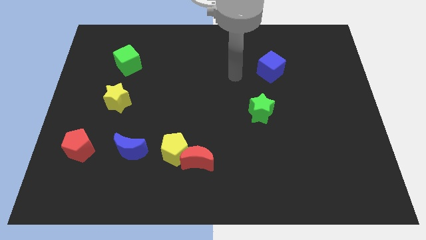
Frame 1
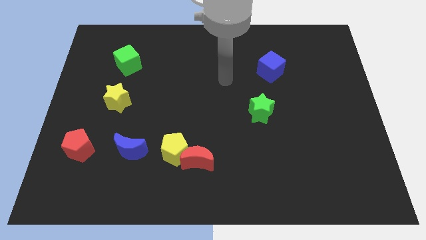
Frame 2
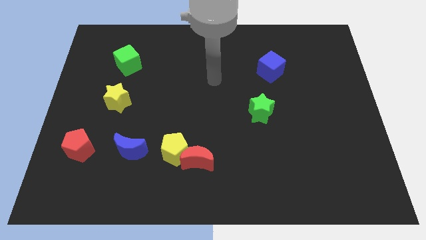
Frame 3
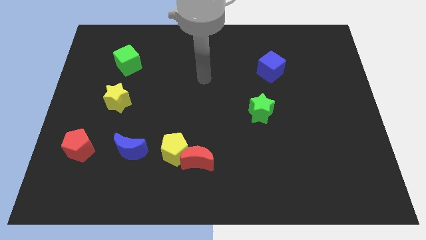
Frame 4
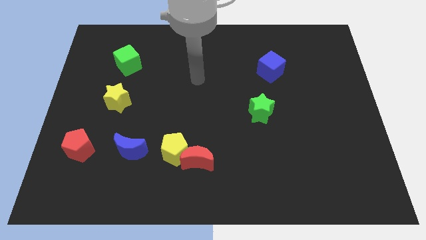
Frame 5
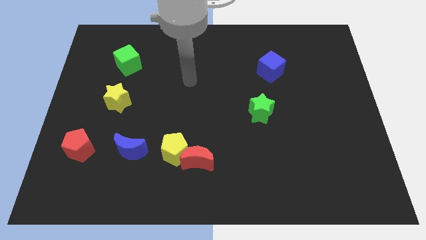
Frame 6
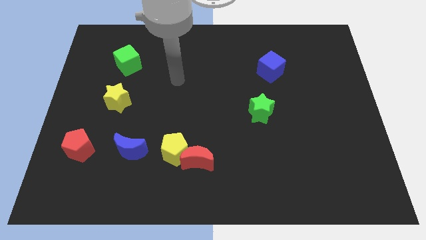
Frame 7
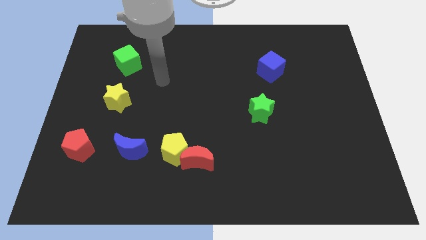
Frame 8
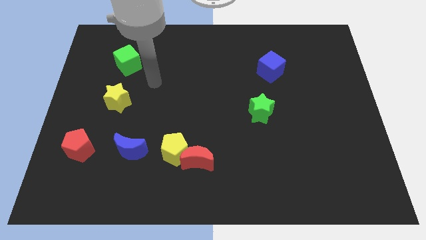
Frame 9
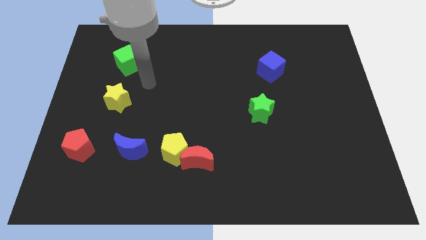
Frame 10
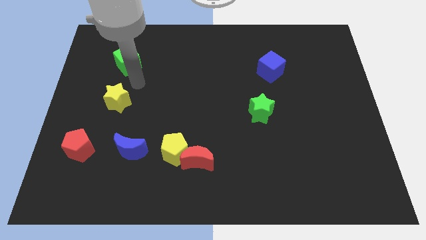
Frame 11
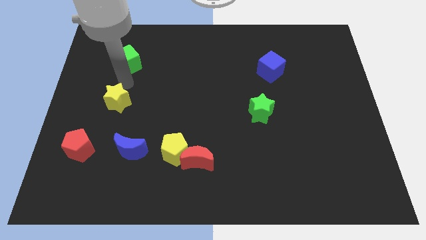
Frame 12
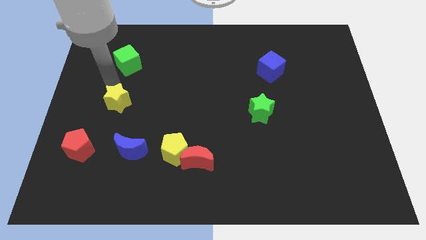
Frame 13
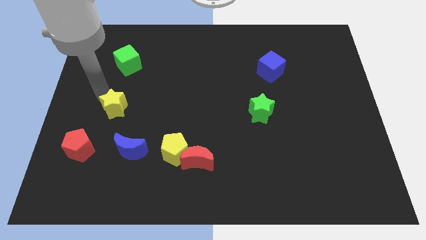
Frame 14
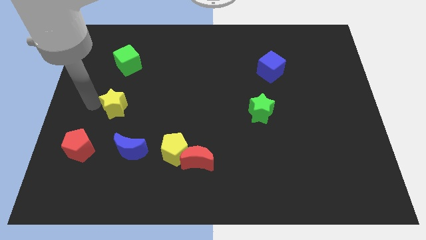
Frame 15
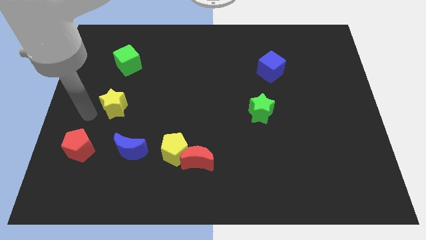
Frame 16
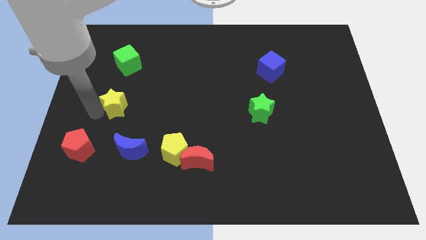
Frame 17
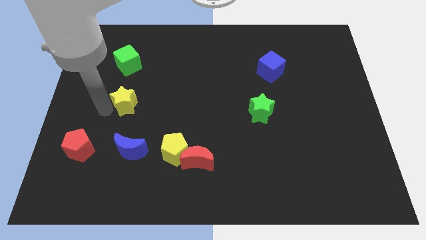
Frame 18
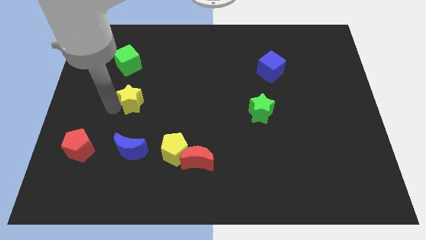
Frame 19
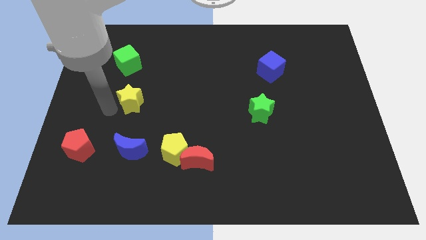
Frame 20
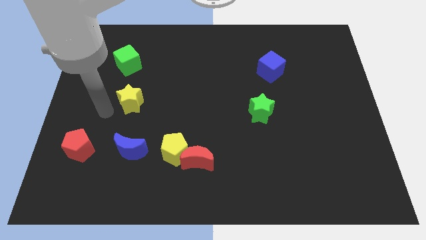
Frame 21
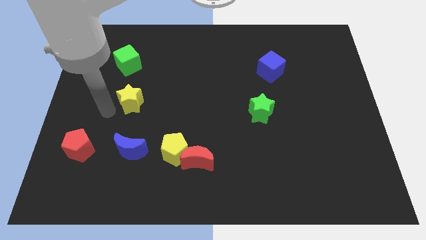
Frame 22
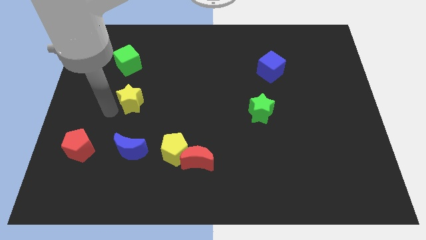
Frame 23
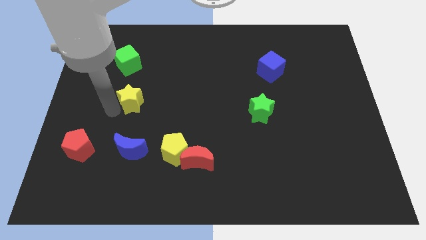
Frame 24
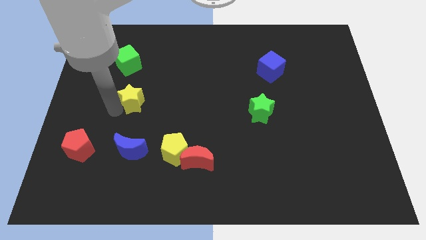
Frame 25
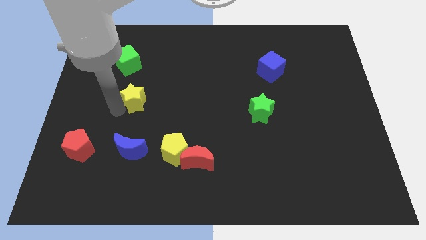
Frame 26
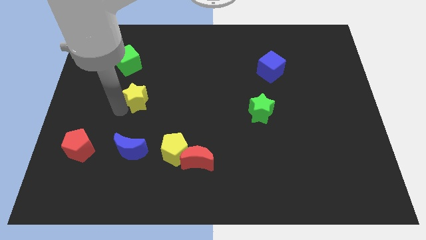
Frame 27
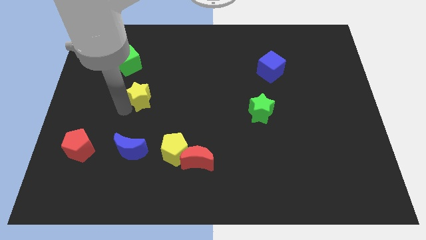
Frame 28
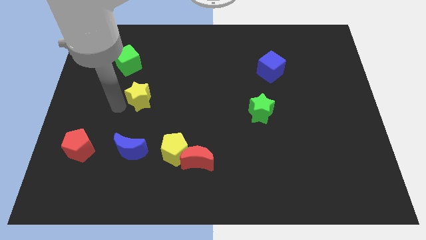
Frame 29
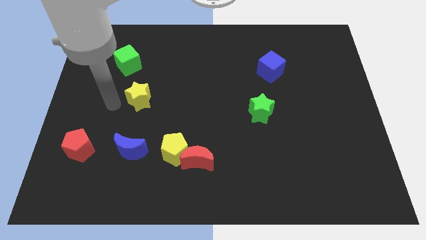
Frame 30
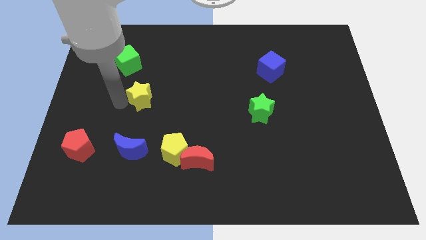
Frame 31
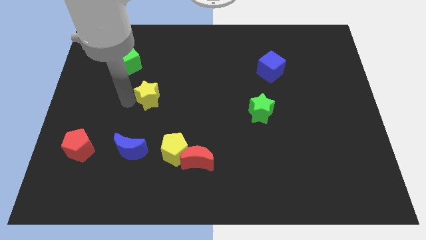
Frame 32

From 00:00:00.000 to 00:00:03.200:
slightly push the yellow star to the right

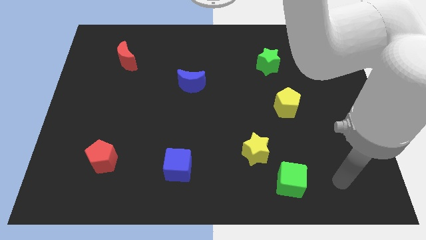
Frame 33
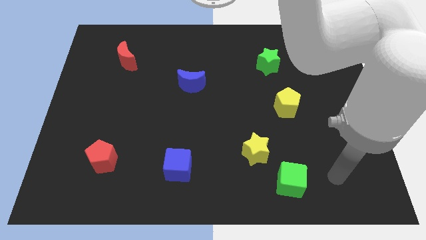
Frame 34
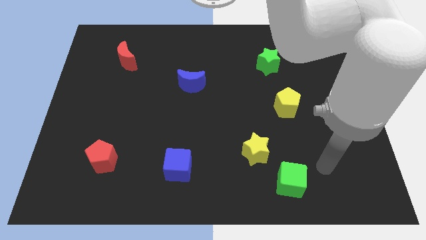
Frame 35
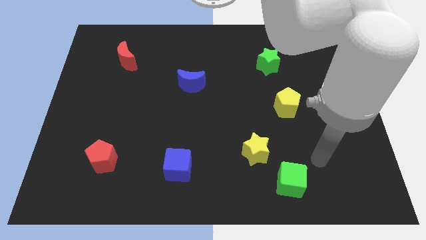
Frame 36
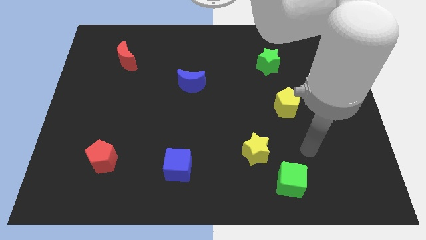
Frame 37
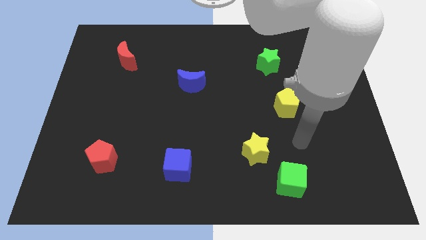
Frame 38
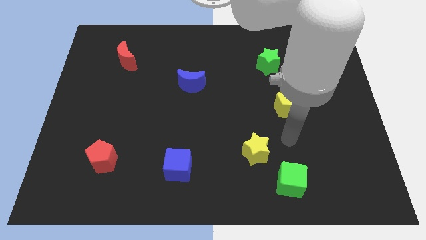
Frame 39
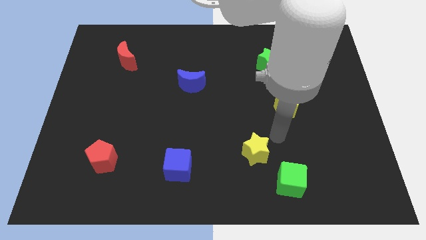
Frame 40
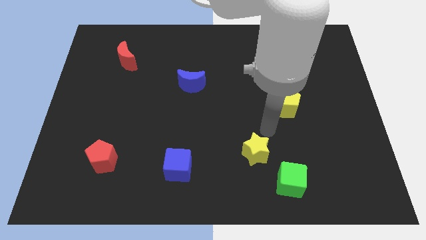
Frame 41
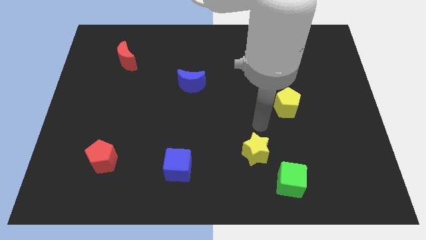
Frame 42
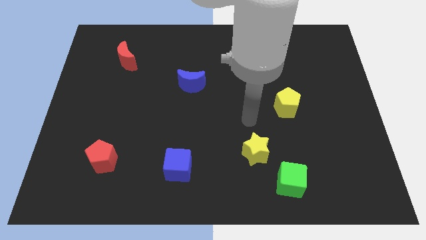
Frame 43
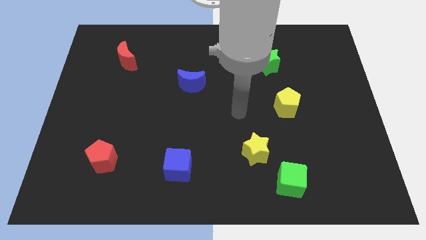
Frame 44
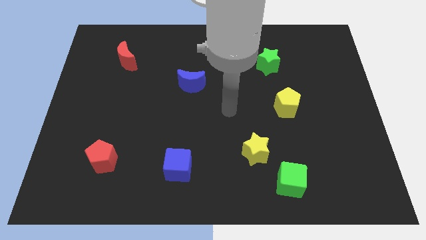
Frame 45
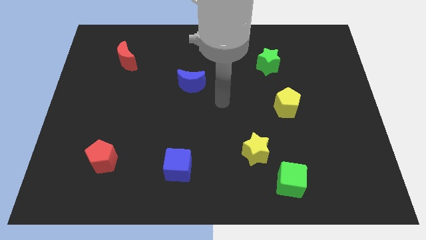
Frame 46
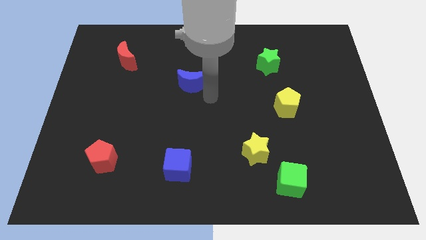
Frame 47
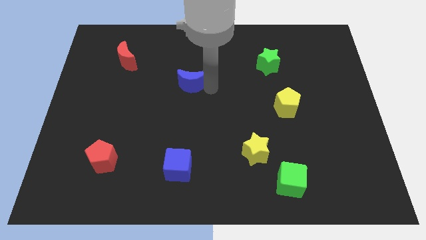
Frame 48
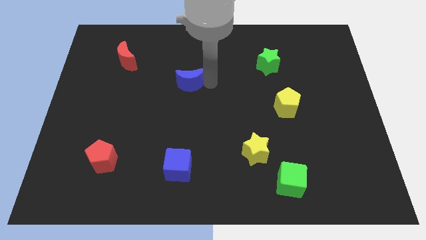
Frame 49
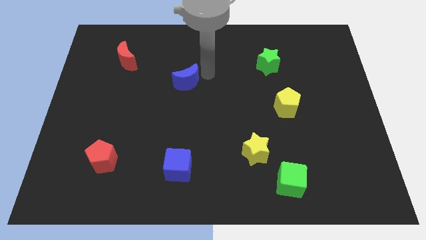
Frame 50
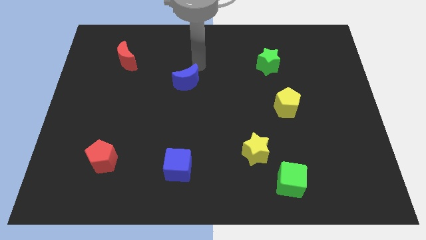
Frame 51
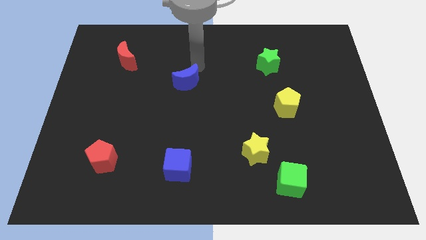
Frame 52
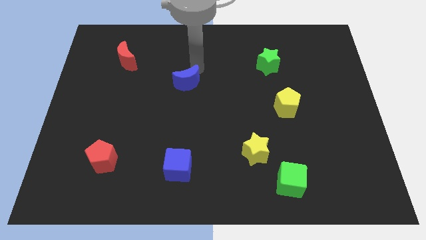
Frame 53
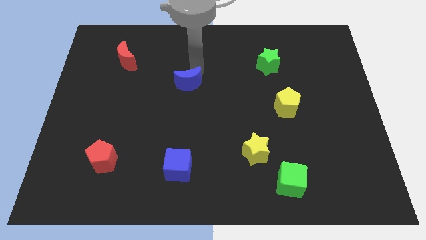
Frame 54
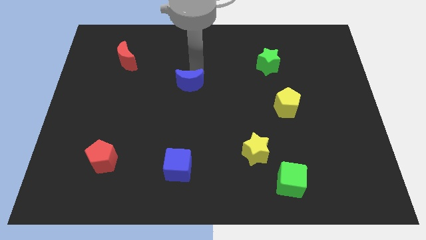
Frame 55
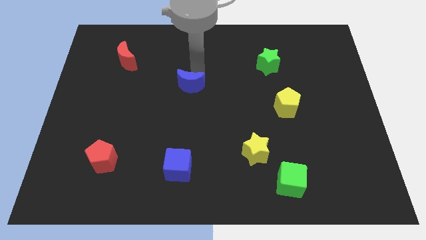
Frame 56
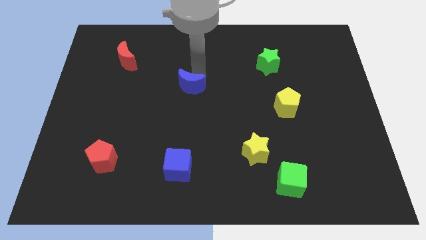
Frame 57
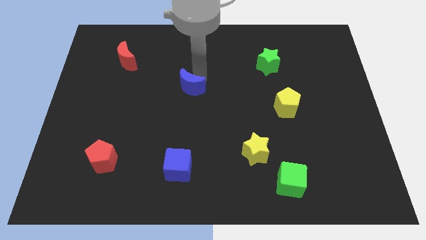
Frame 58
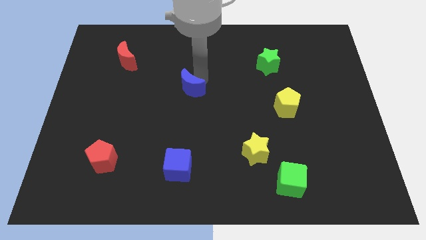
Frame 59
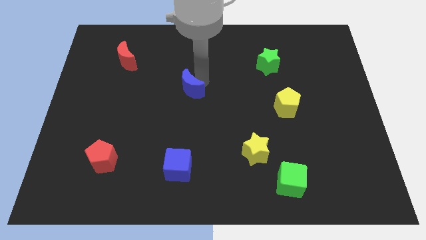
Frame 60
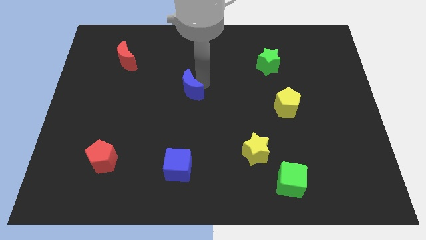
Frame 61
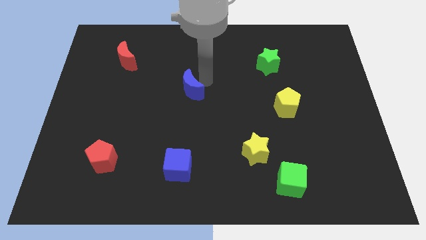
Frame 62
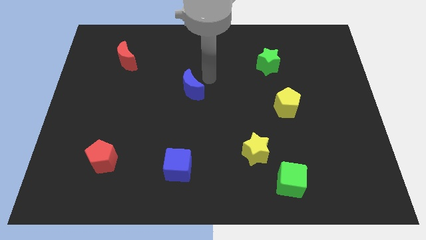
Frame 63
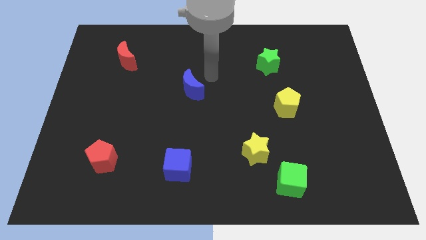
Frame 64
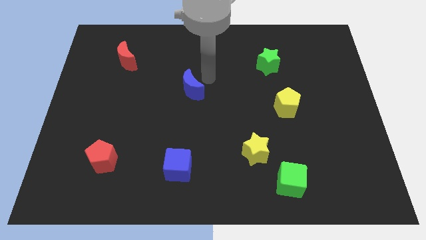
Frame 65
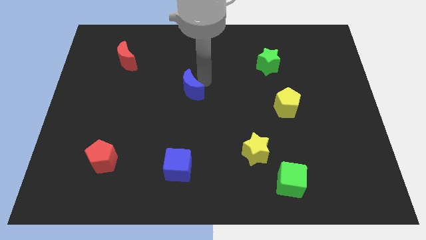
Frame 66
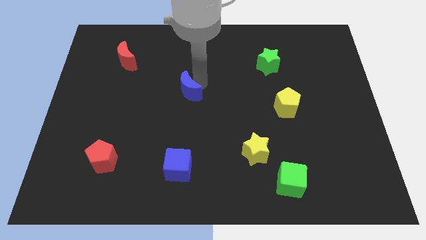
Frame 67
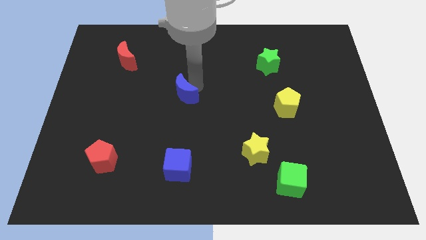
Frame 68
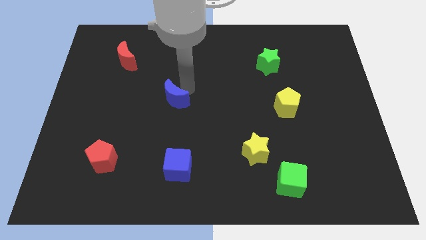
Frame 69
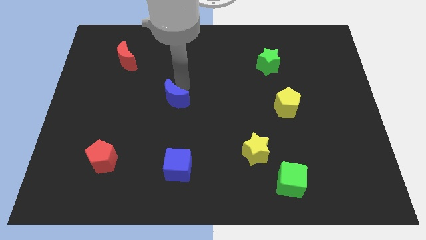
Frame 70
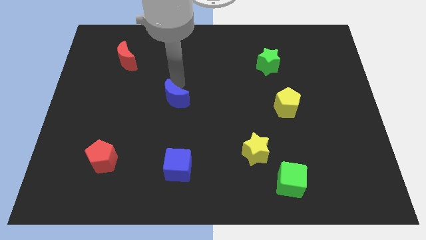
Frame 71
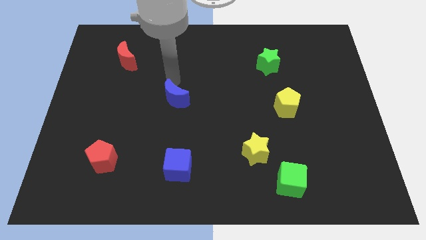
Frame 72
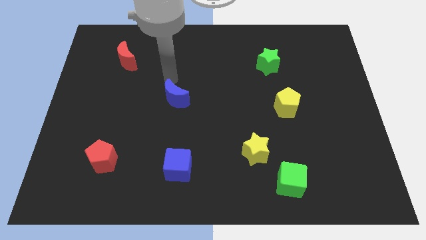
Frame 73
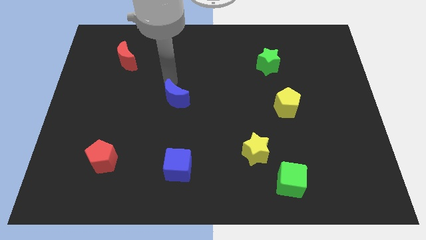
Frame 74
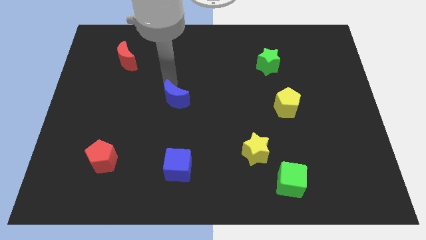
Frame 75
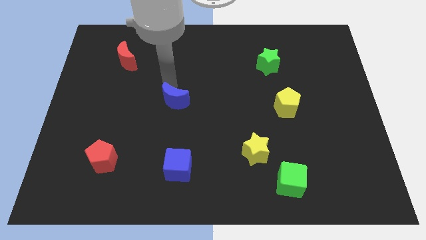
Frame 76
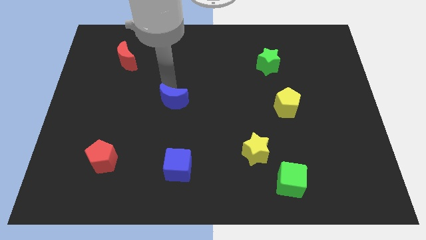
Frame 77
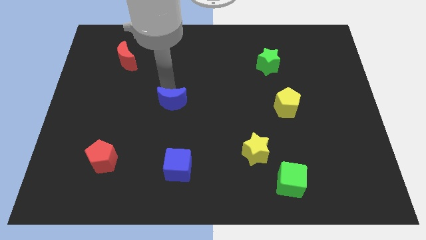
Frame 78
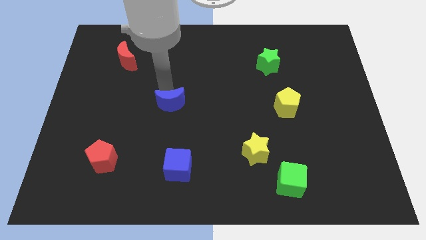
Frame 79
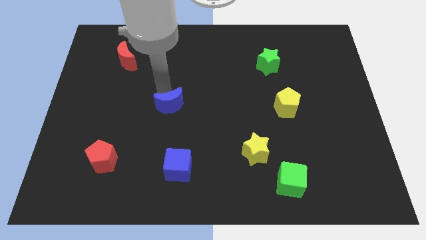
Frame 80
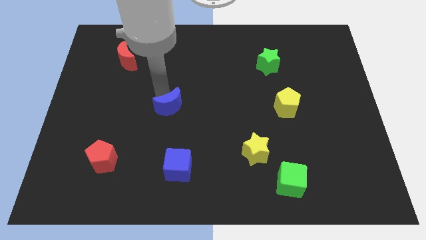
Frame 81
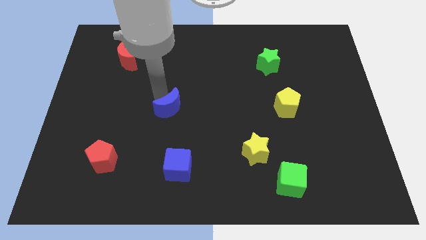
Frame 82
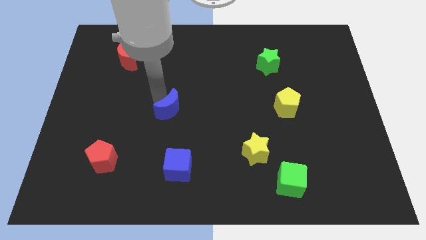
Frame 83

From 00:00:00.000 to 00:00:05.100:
slide the blue moon downwards a bit
